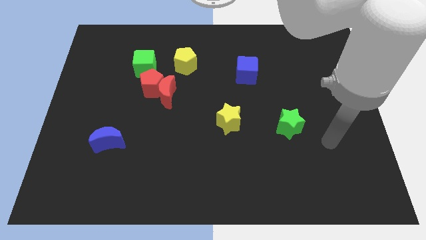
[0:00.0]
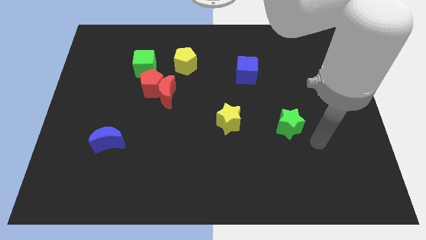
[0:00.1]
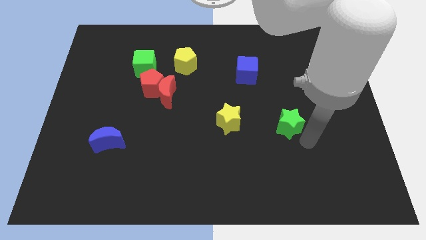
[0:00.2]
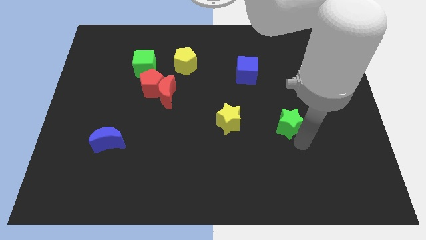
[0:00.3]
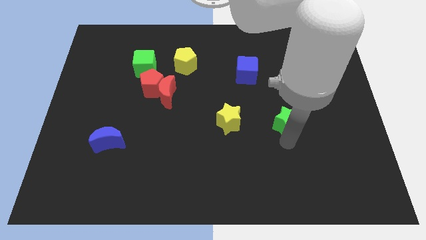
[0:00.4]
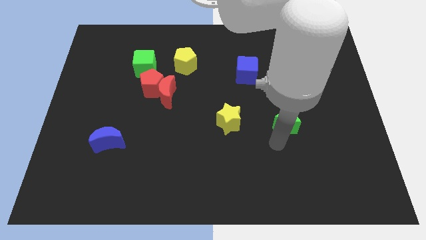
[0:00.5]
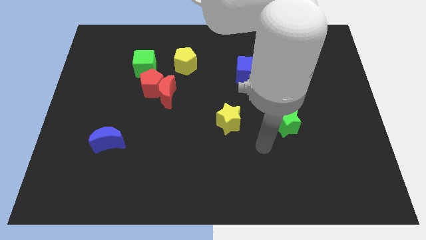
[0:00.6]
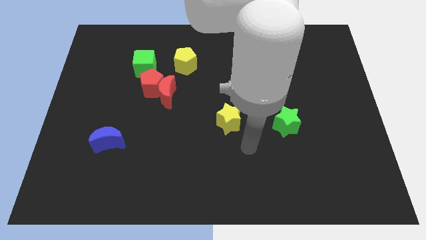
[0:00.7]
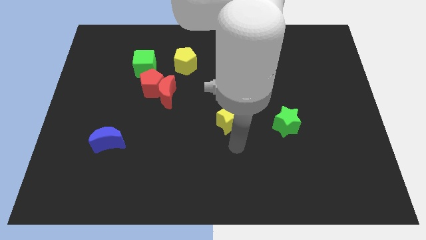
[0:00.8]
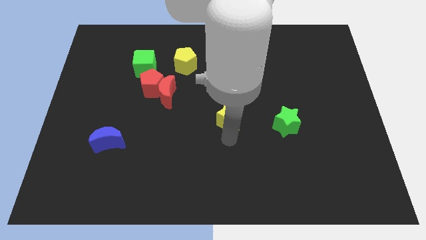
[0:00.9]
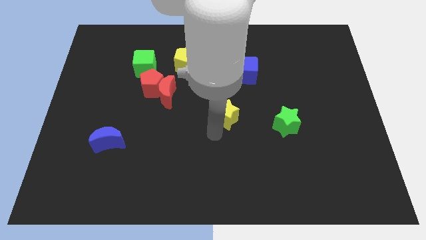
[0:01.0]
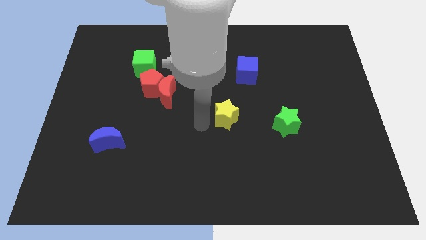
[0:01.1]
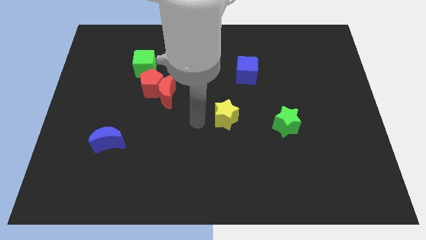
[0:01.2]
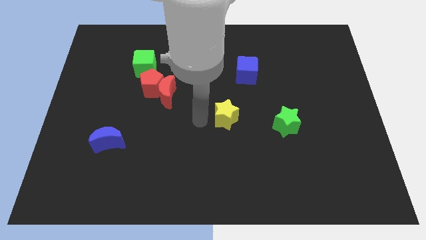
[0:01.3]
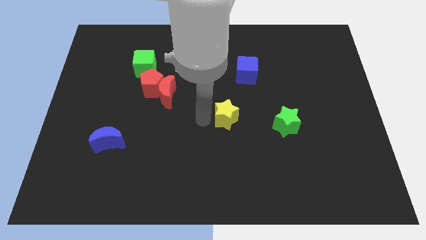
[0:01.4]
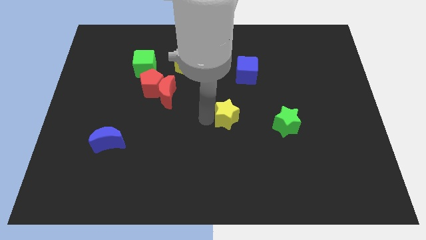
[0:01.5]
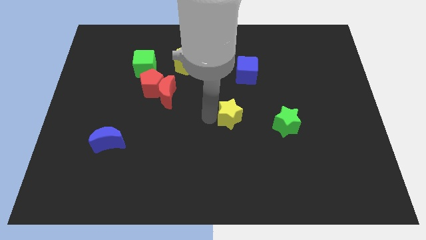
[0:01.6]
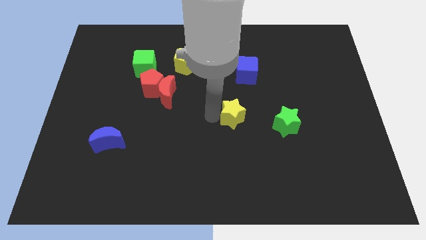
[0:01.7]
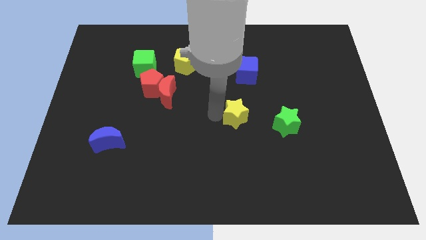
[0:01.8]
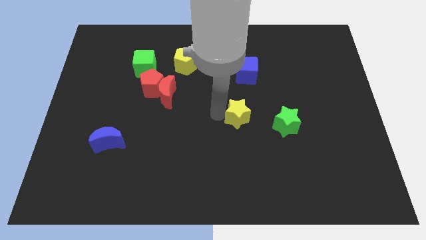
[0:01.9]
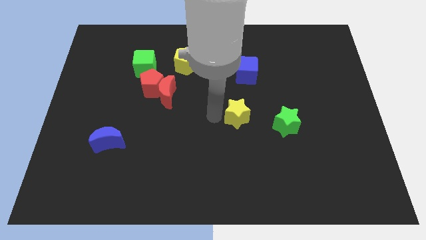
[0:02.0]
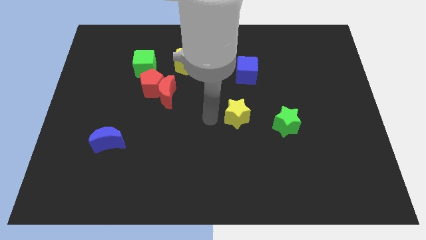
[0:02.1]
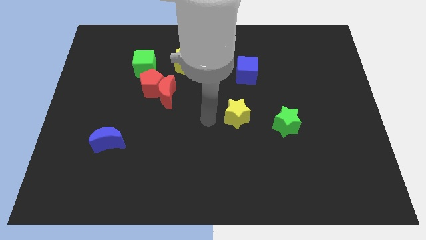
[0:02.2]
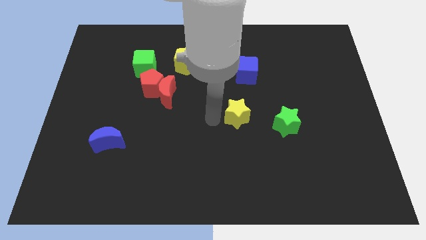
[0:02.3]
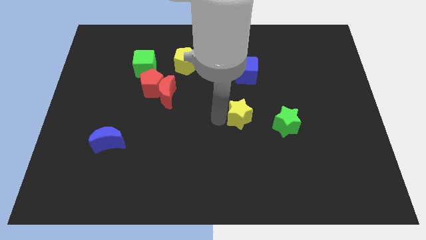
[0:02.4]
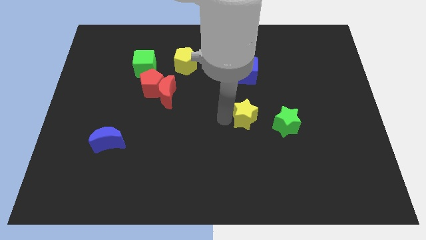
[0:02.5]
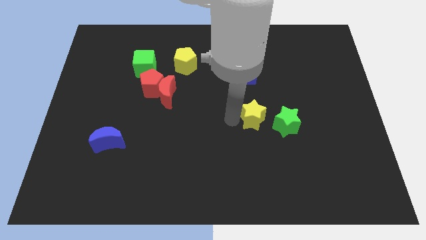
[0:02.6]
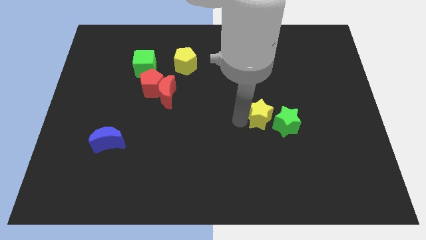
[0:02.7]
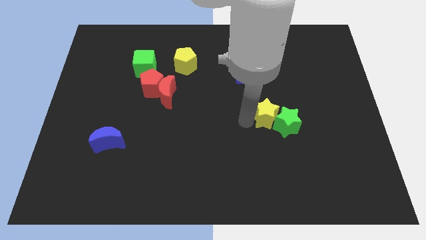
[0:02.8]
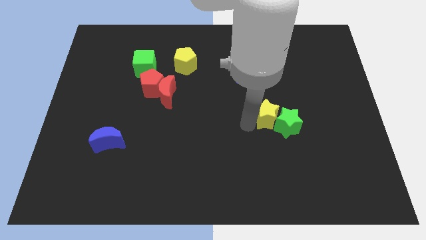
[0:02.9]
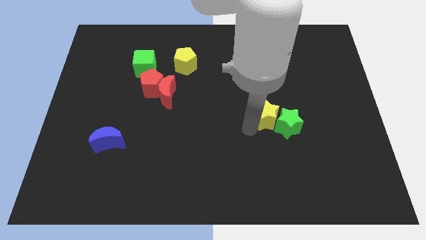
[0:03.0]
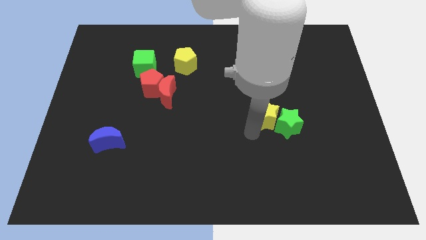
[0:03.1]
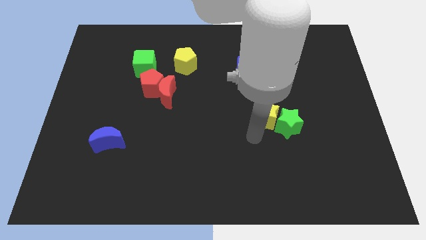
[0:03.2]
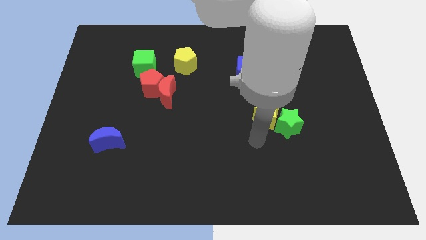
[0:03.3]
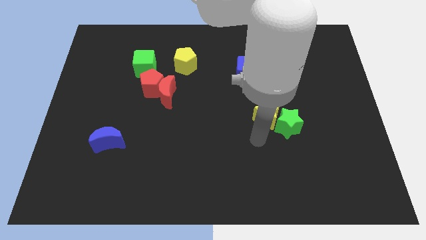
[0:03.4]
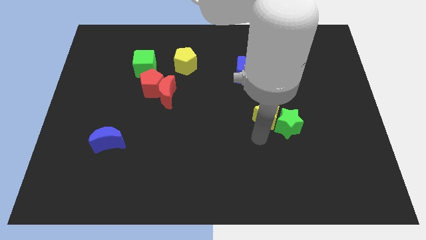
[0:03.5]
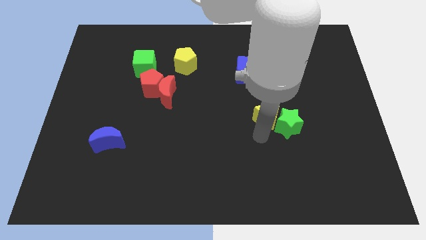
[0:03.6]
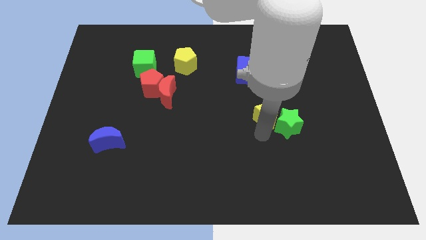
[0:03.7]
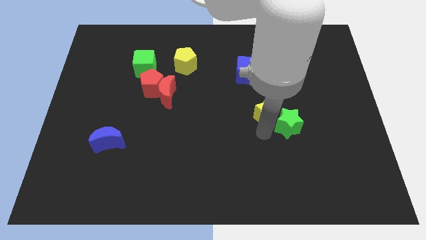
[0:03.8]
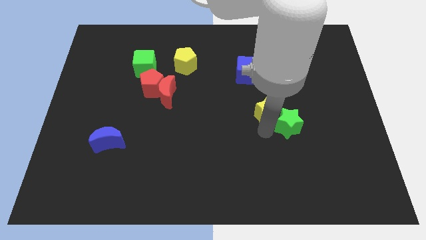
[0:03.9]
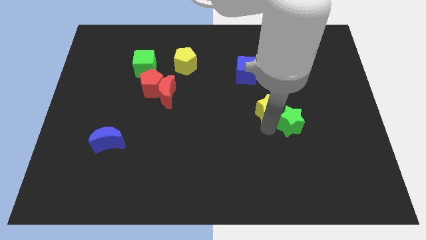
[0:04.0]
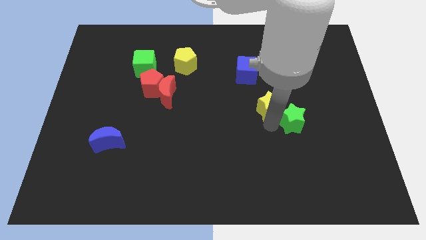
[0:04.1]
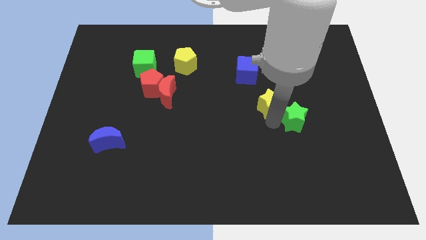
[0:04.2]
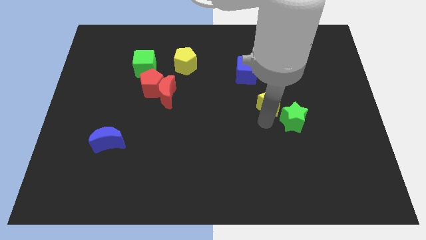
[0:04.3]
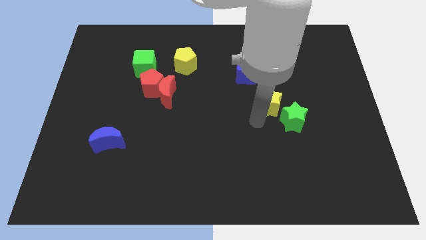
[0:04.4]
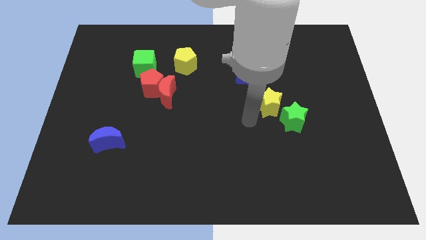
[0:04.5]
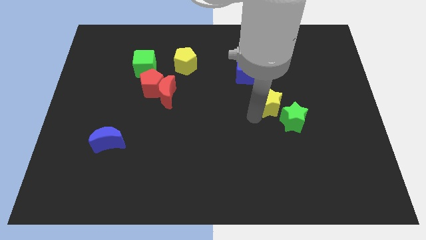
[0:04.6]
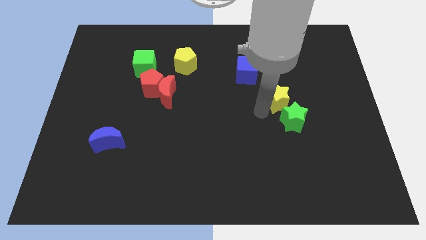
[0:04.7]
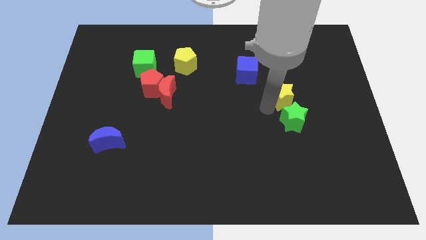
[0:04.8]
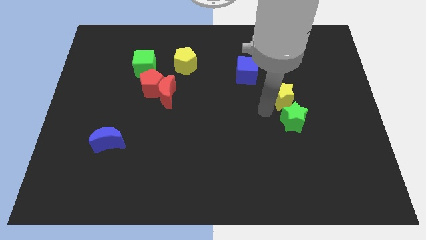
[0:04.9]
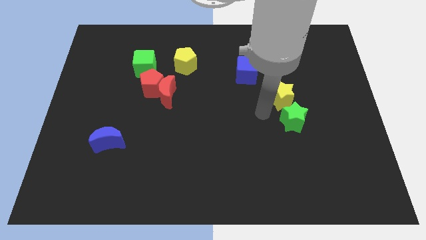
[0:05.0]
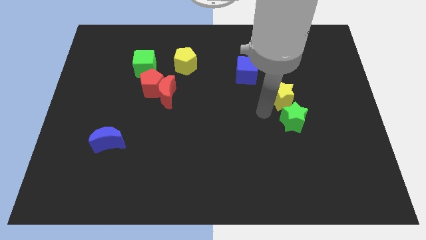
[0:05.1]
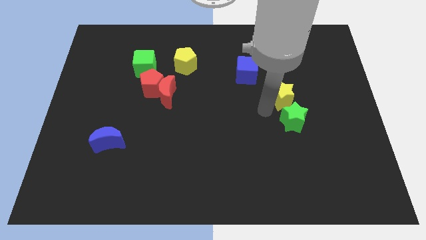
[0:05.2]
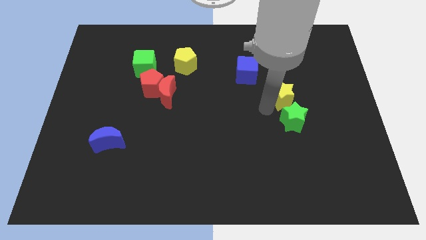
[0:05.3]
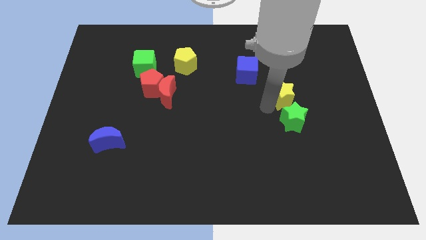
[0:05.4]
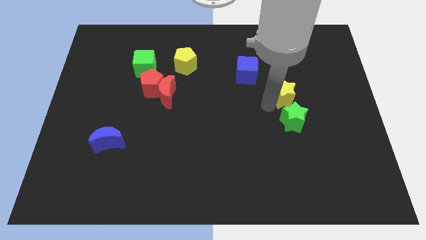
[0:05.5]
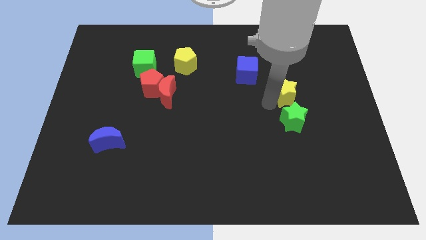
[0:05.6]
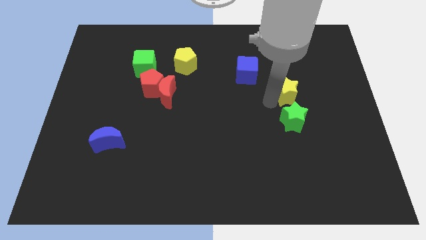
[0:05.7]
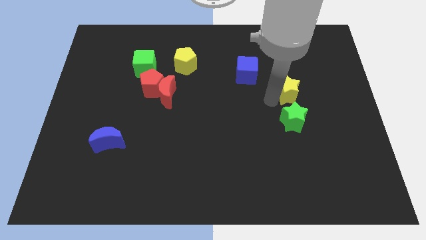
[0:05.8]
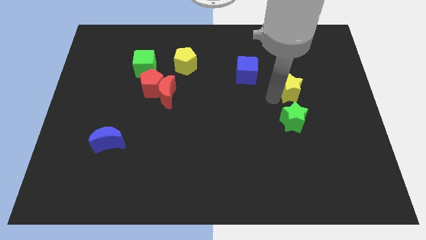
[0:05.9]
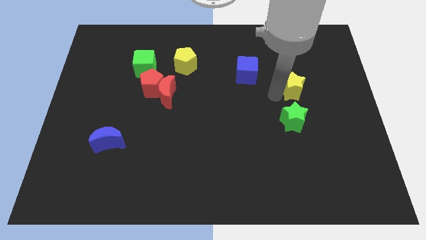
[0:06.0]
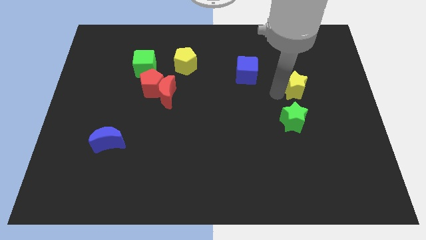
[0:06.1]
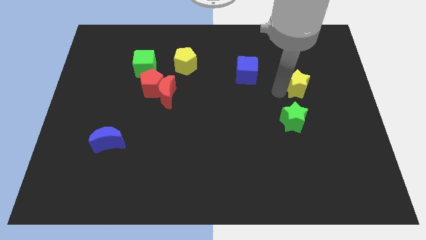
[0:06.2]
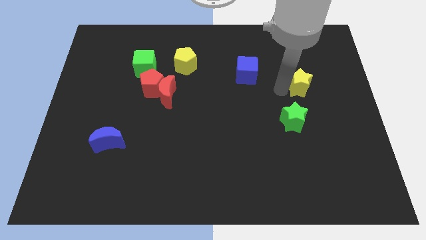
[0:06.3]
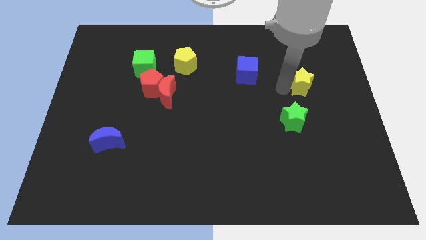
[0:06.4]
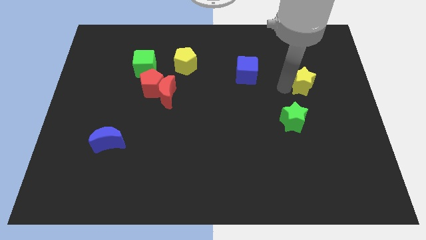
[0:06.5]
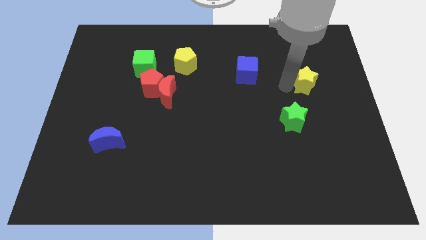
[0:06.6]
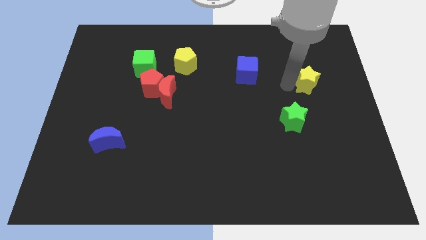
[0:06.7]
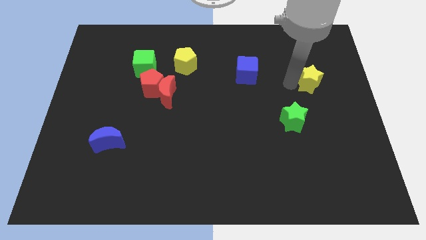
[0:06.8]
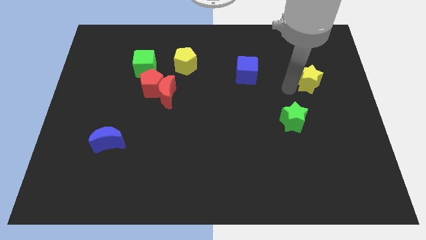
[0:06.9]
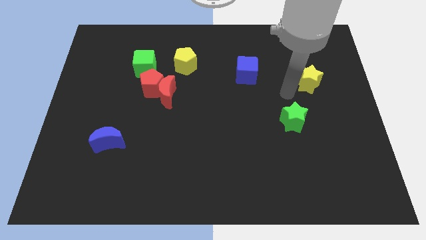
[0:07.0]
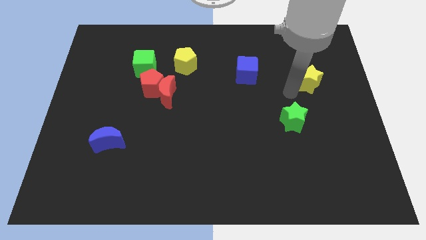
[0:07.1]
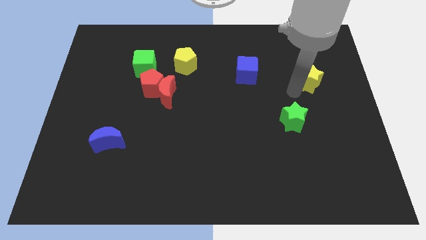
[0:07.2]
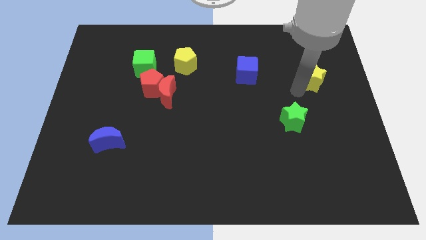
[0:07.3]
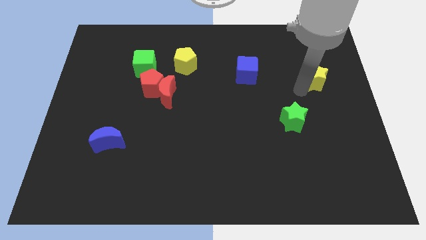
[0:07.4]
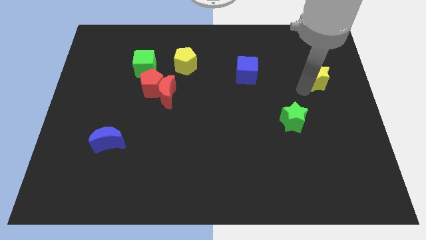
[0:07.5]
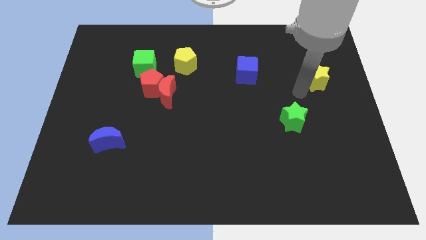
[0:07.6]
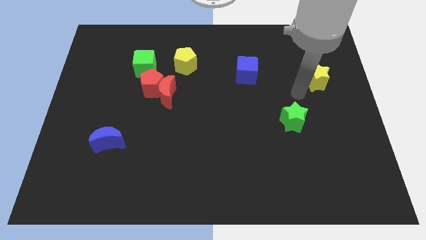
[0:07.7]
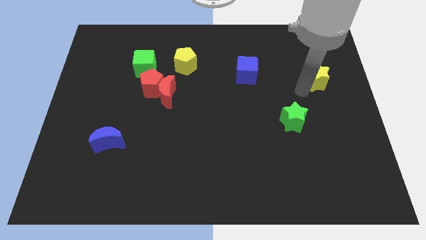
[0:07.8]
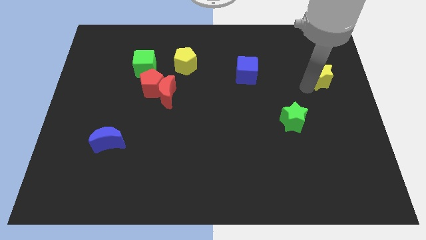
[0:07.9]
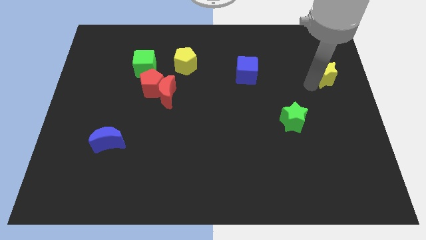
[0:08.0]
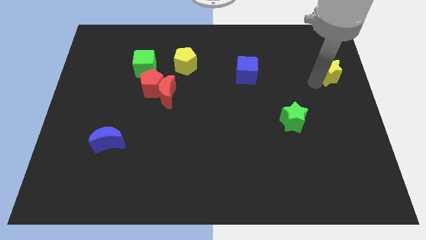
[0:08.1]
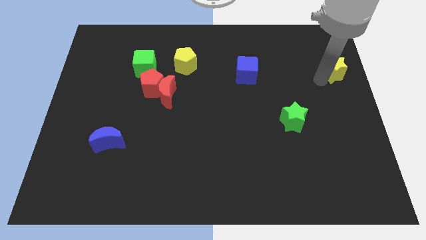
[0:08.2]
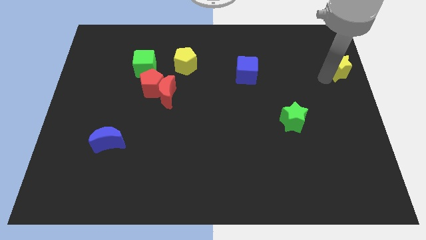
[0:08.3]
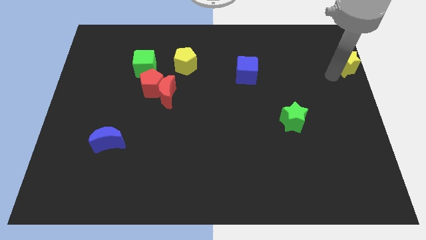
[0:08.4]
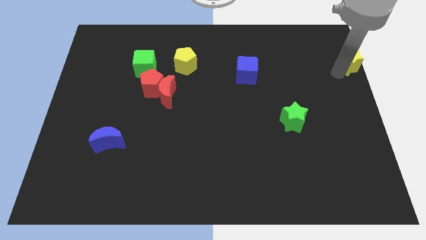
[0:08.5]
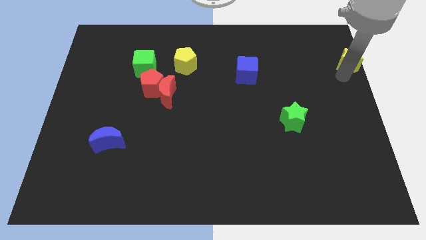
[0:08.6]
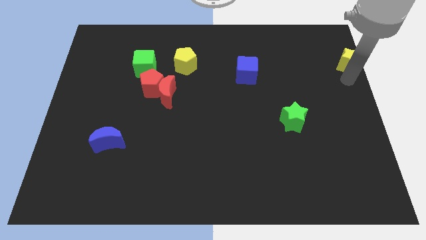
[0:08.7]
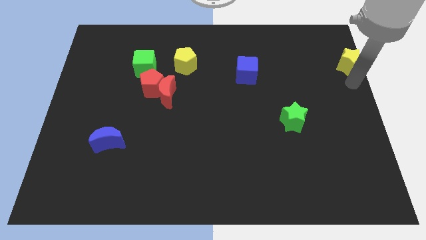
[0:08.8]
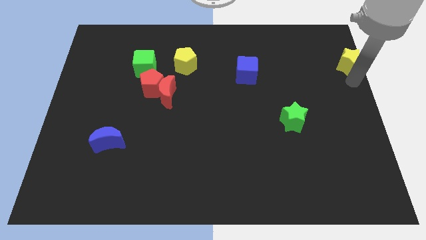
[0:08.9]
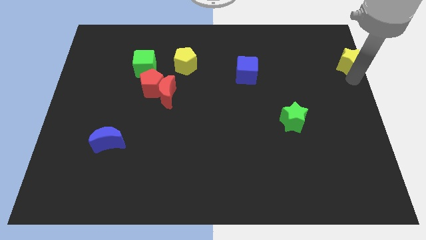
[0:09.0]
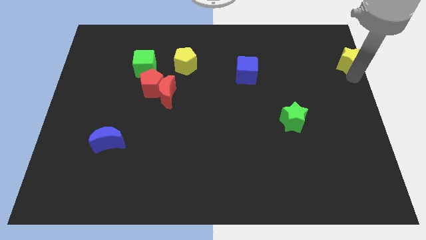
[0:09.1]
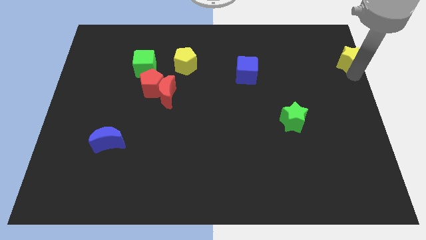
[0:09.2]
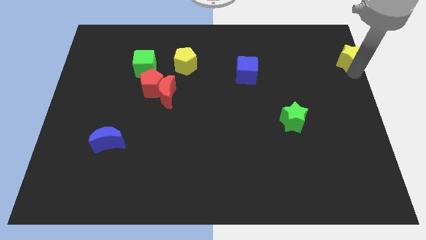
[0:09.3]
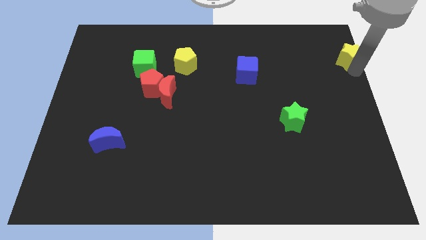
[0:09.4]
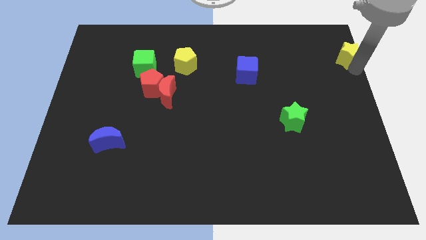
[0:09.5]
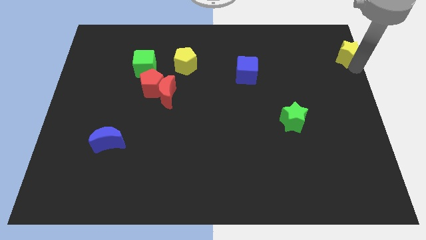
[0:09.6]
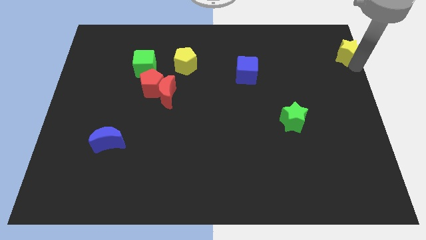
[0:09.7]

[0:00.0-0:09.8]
slide the yellow star to the top right corner
